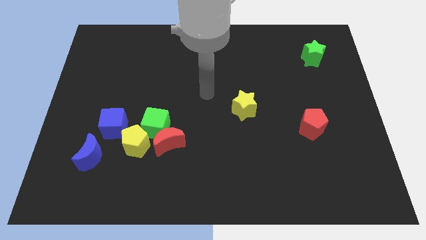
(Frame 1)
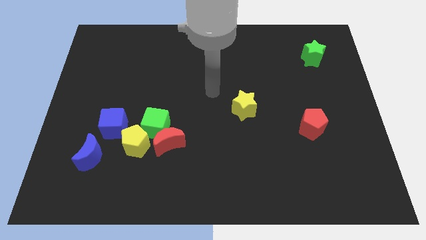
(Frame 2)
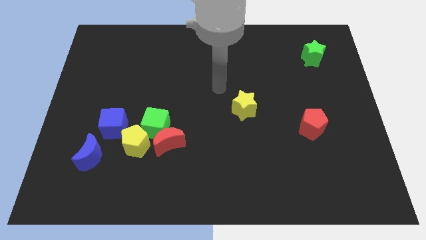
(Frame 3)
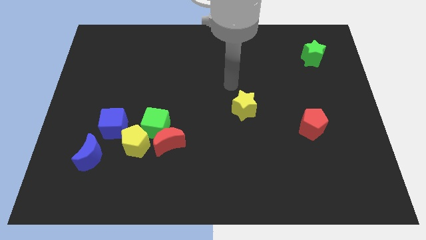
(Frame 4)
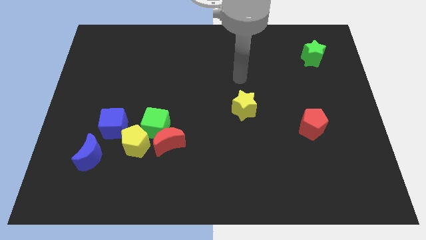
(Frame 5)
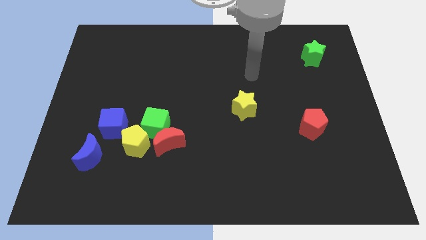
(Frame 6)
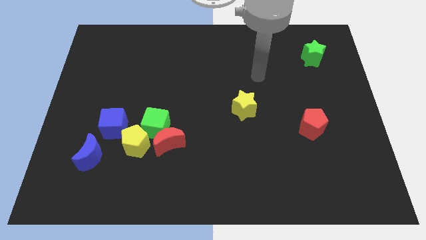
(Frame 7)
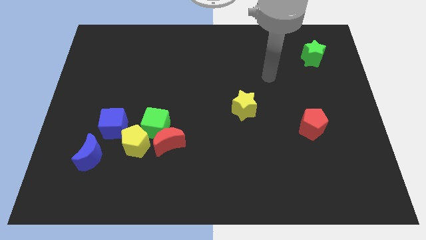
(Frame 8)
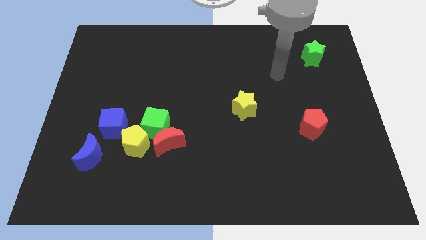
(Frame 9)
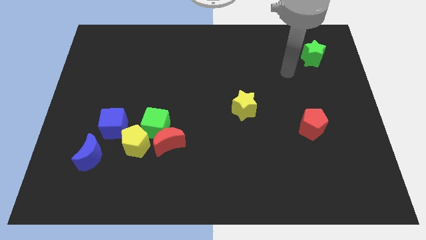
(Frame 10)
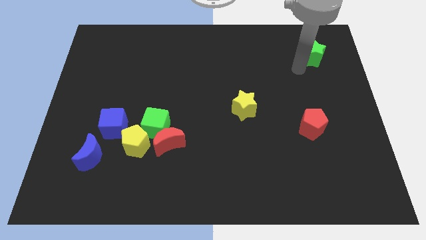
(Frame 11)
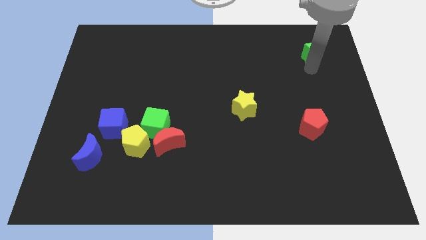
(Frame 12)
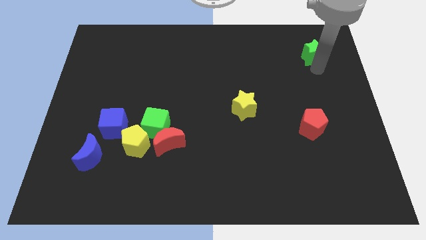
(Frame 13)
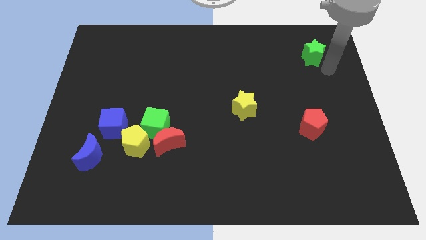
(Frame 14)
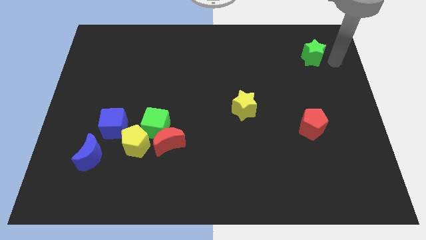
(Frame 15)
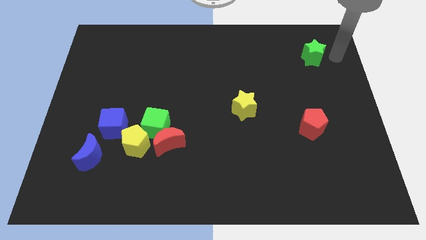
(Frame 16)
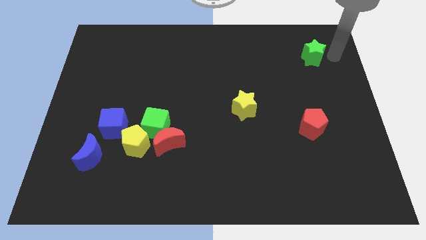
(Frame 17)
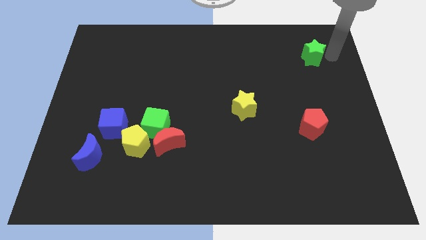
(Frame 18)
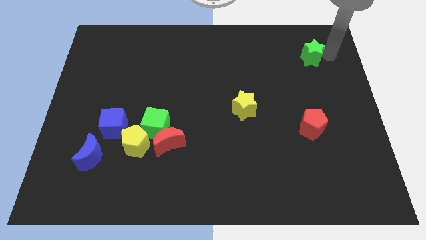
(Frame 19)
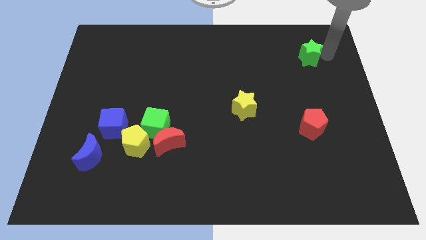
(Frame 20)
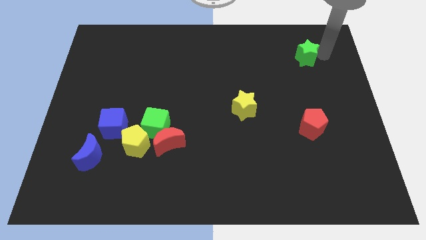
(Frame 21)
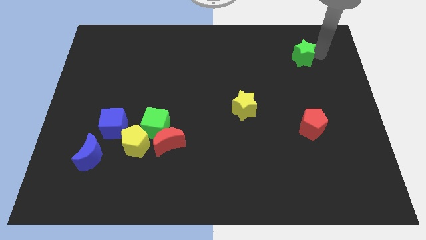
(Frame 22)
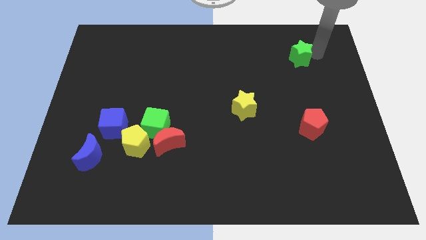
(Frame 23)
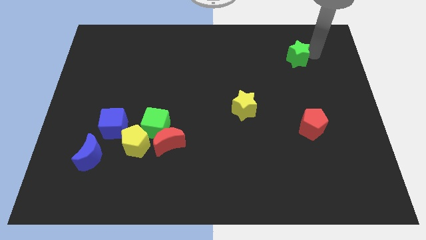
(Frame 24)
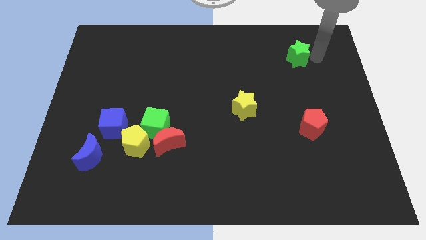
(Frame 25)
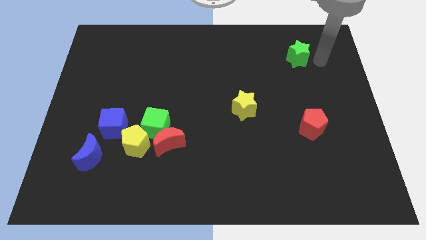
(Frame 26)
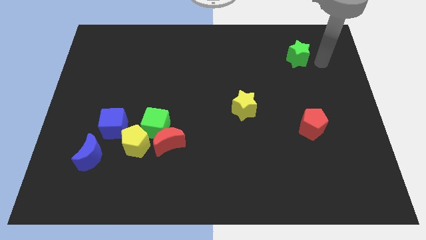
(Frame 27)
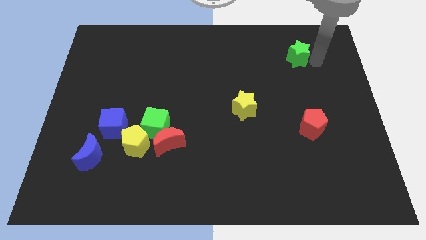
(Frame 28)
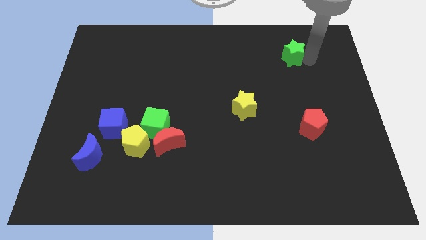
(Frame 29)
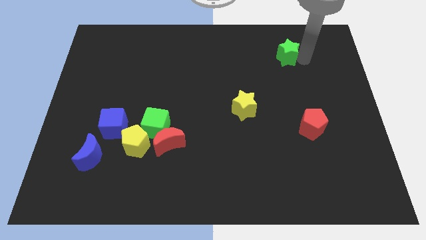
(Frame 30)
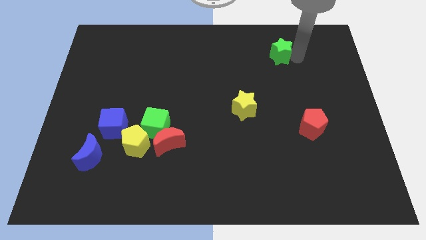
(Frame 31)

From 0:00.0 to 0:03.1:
slide the green star somewhat to the left

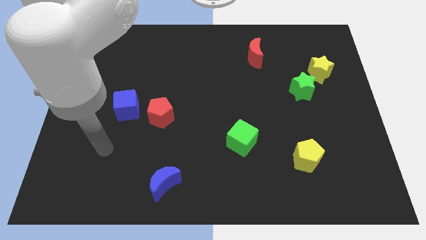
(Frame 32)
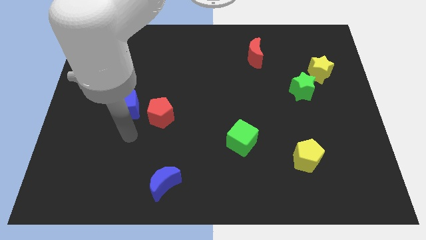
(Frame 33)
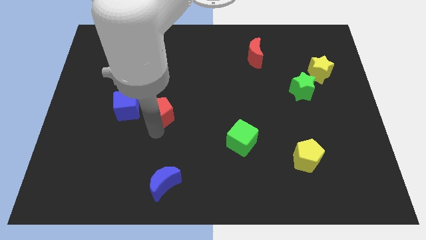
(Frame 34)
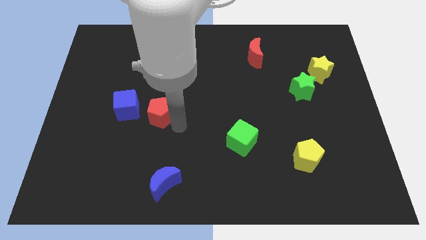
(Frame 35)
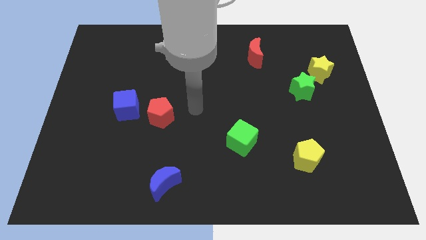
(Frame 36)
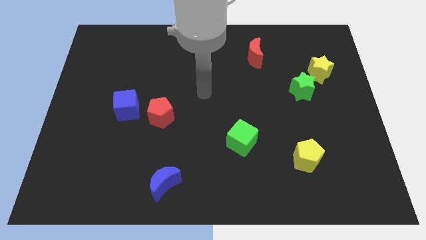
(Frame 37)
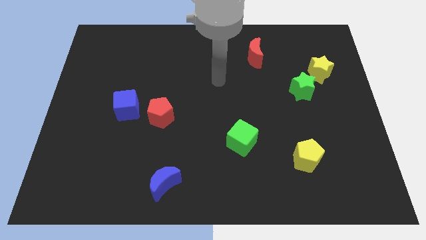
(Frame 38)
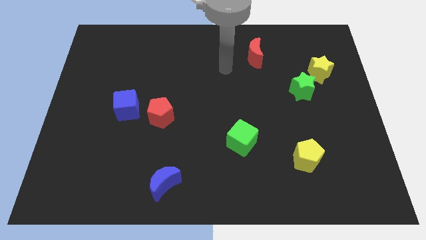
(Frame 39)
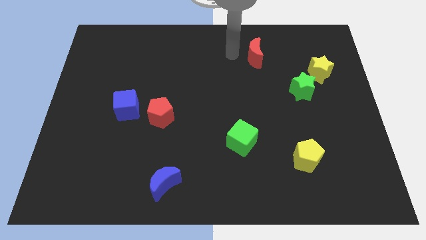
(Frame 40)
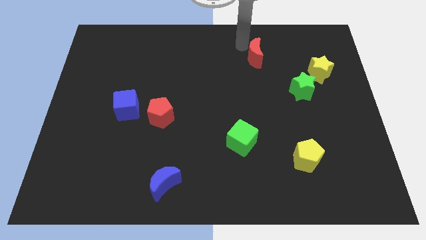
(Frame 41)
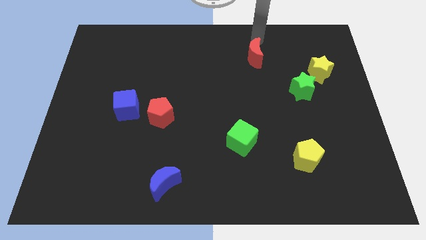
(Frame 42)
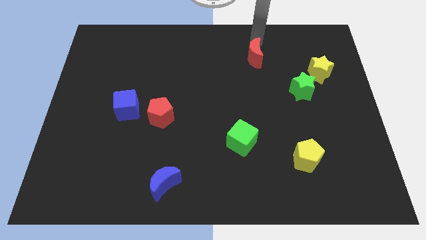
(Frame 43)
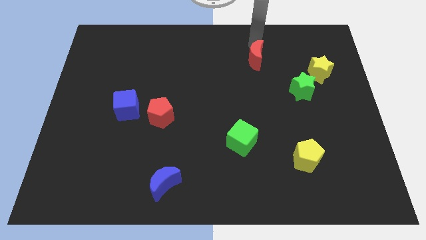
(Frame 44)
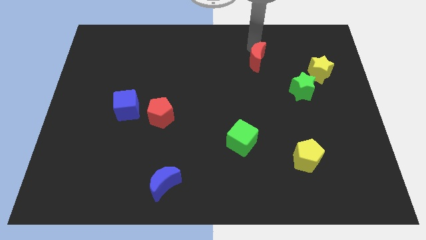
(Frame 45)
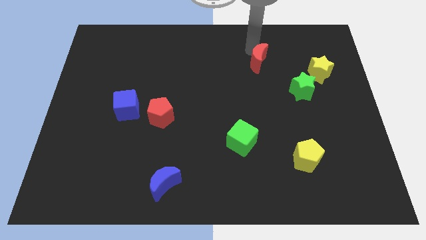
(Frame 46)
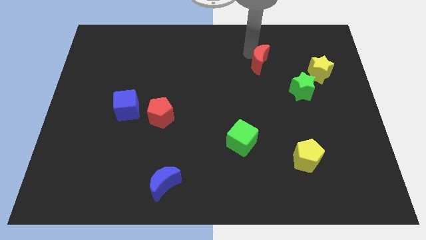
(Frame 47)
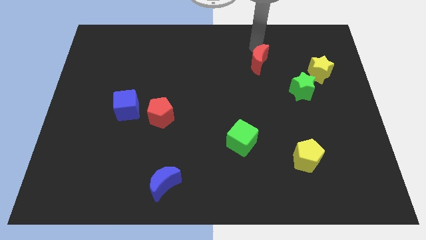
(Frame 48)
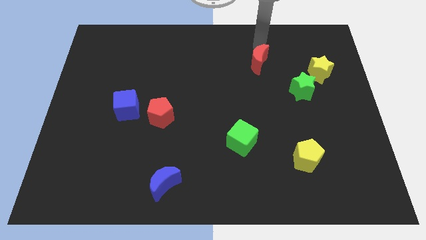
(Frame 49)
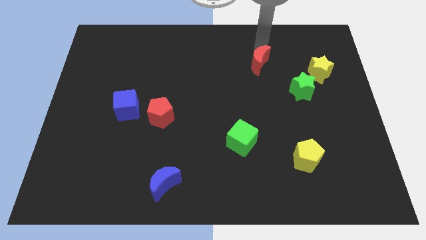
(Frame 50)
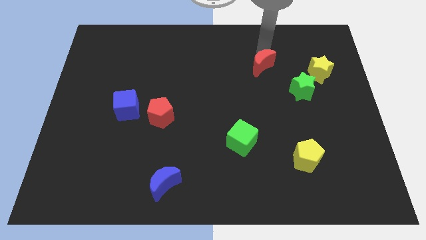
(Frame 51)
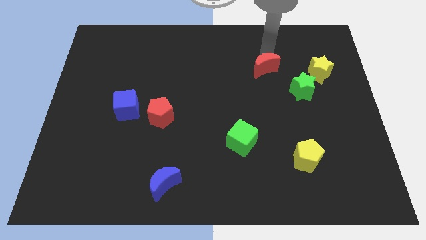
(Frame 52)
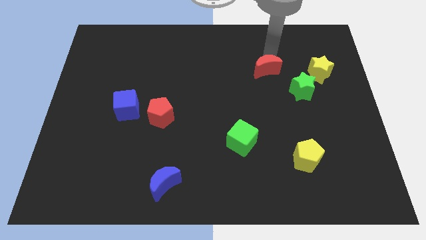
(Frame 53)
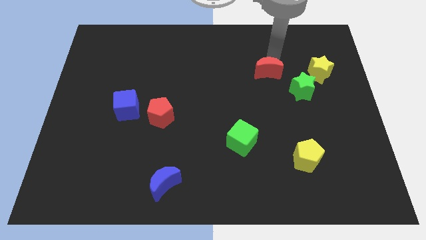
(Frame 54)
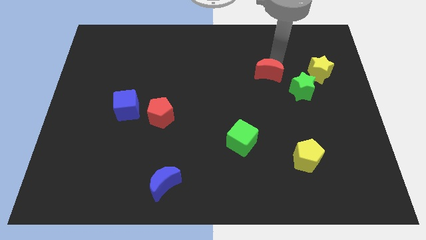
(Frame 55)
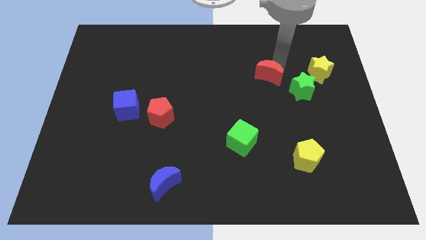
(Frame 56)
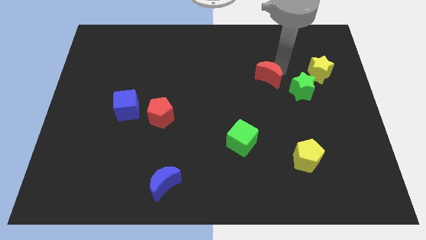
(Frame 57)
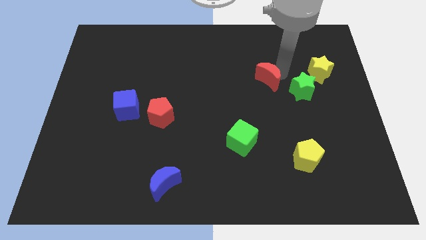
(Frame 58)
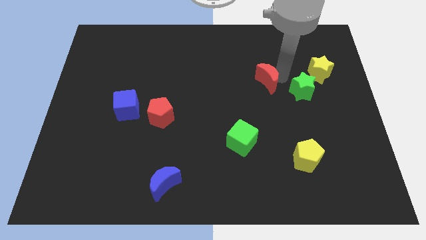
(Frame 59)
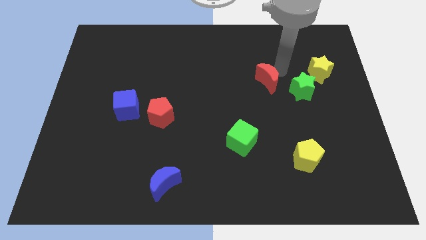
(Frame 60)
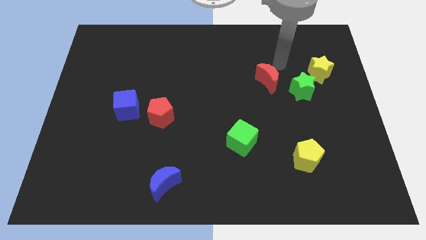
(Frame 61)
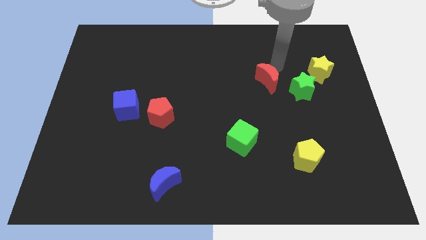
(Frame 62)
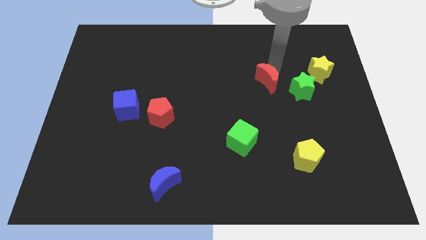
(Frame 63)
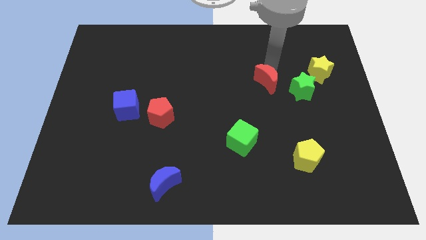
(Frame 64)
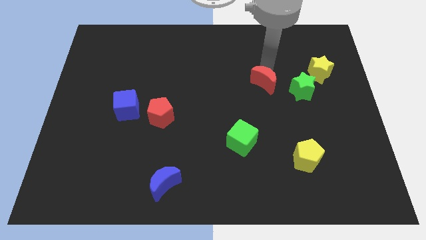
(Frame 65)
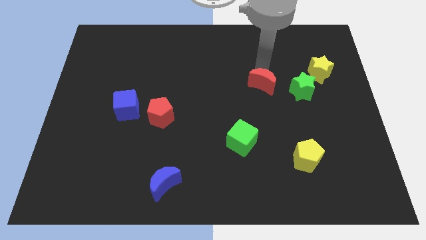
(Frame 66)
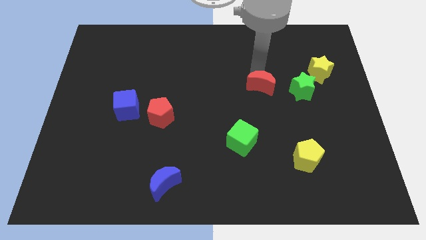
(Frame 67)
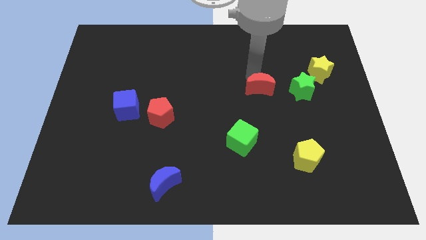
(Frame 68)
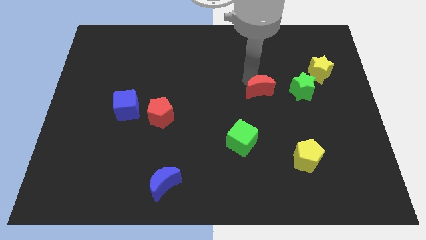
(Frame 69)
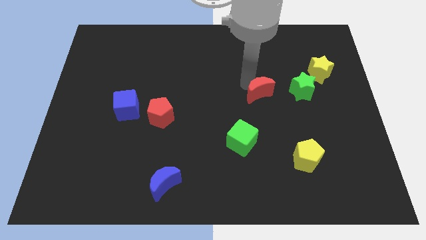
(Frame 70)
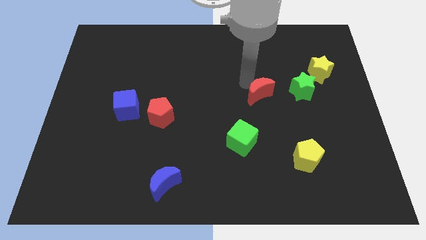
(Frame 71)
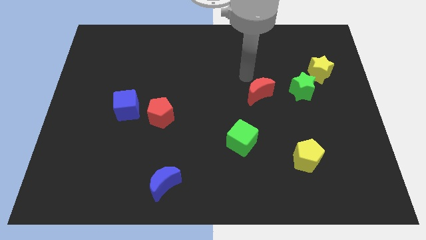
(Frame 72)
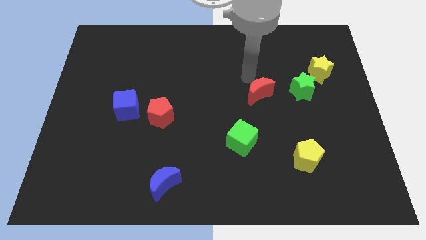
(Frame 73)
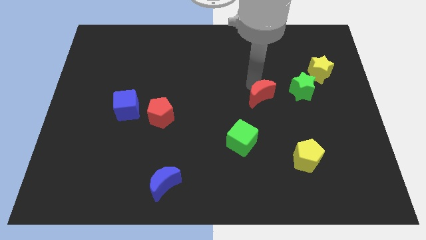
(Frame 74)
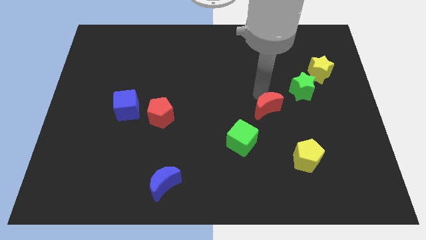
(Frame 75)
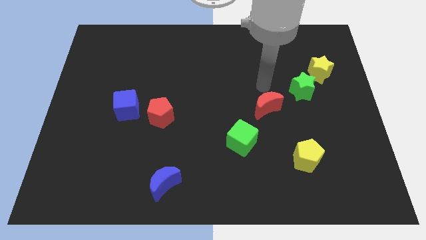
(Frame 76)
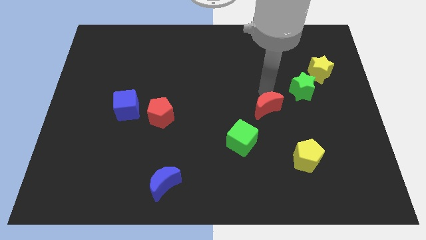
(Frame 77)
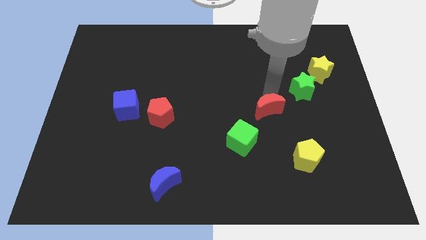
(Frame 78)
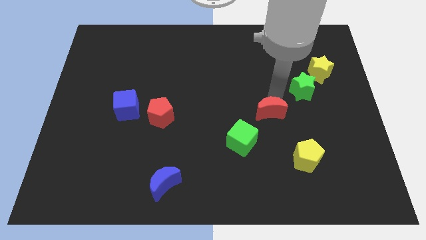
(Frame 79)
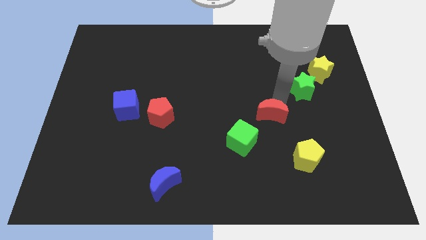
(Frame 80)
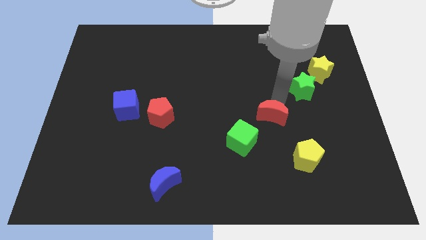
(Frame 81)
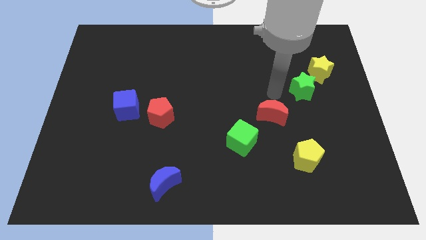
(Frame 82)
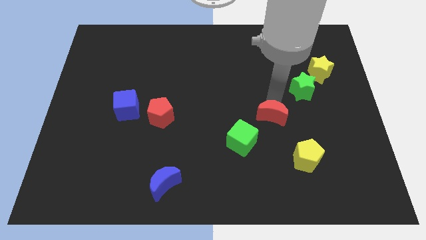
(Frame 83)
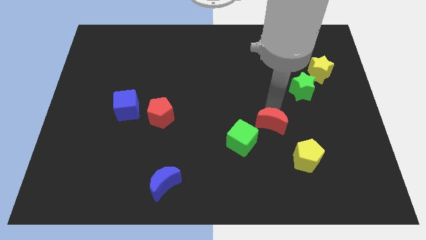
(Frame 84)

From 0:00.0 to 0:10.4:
slide the red moon down

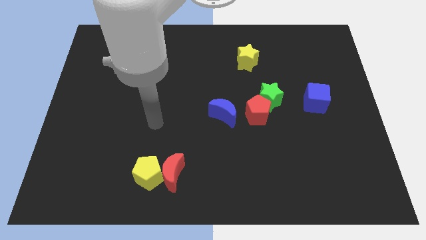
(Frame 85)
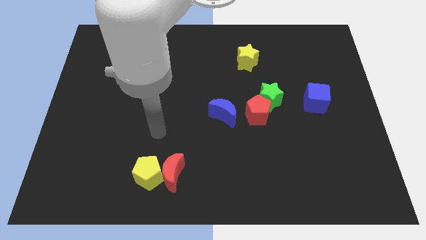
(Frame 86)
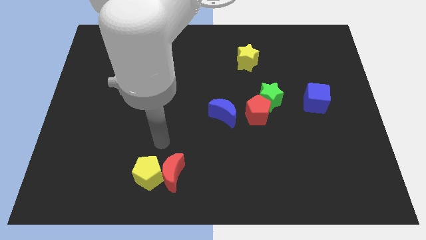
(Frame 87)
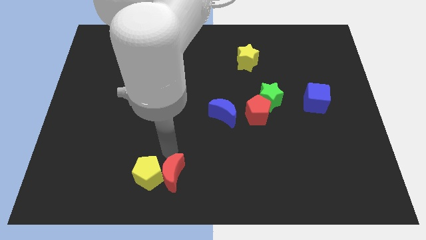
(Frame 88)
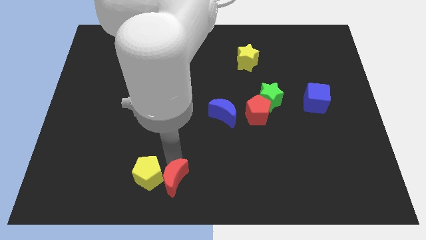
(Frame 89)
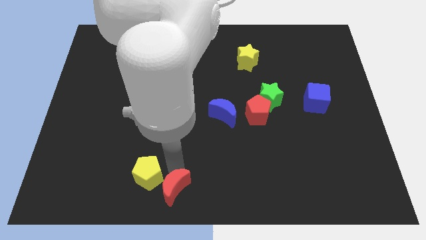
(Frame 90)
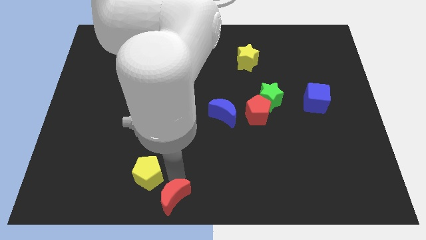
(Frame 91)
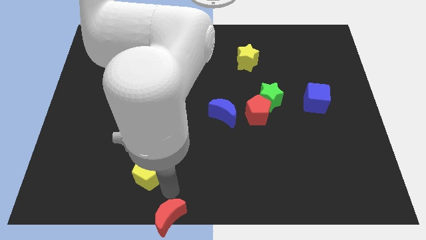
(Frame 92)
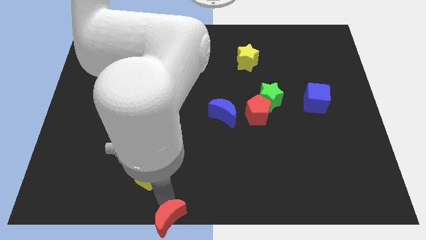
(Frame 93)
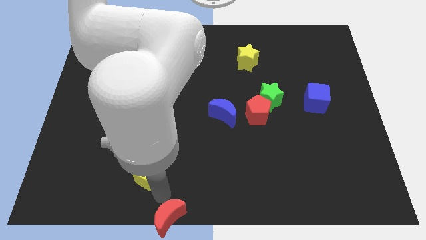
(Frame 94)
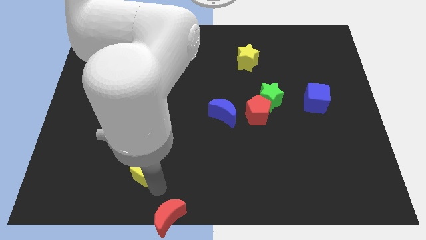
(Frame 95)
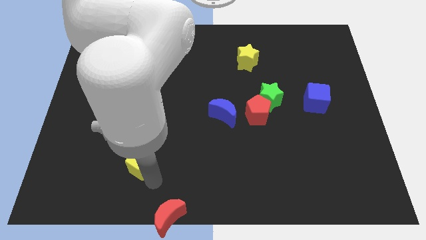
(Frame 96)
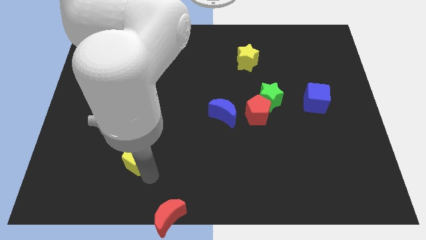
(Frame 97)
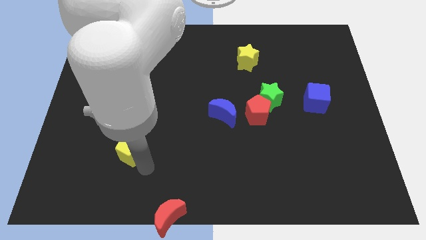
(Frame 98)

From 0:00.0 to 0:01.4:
slightly move the yellow pentagon diagonally upwards and to the left
